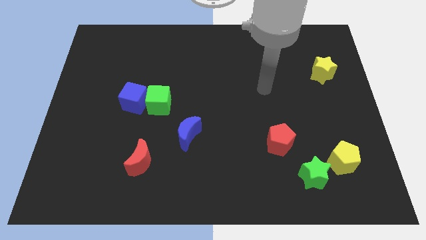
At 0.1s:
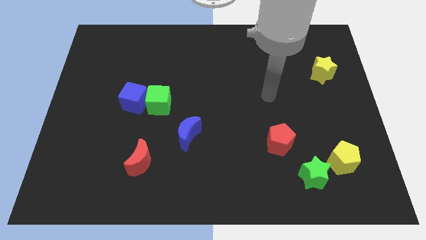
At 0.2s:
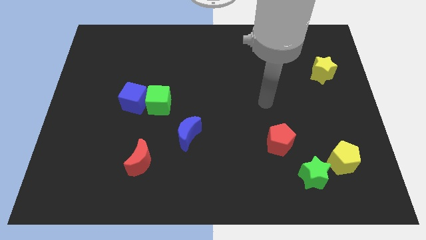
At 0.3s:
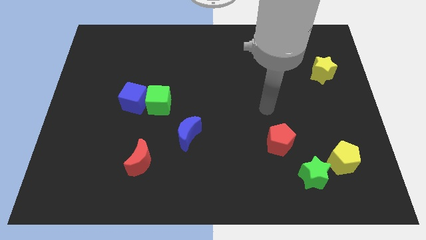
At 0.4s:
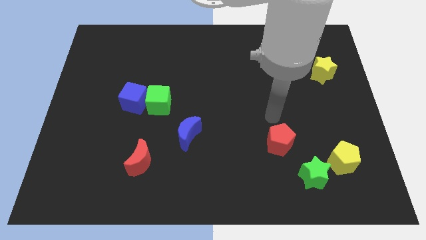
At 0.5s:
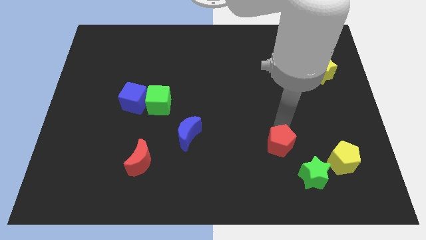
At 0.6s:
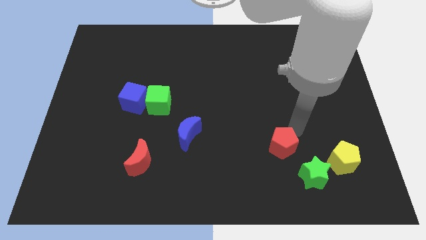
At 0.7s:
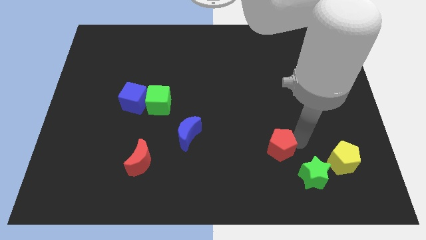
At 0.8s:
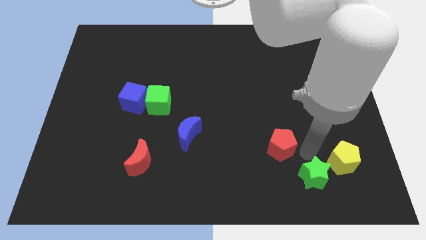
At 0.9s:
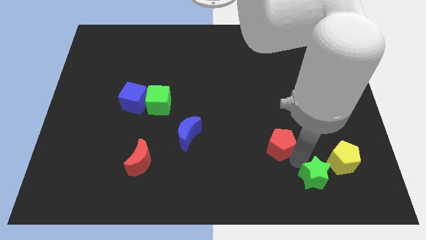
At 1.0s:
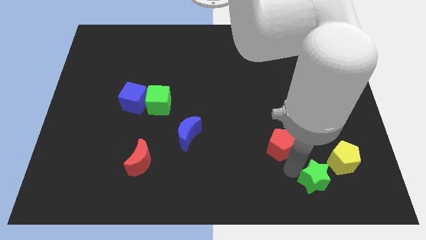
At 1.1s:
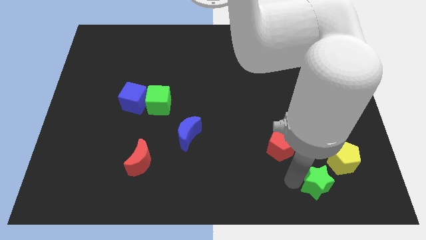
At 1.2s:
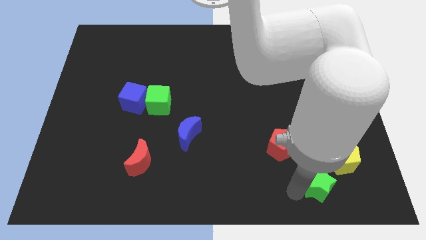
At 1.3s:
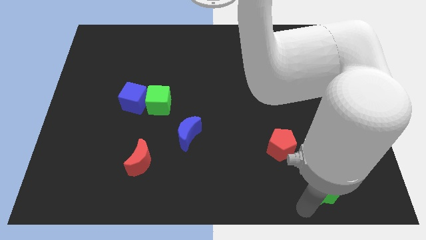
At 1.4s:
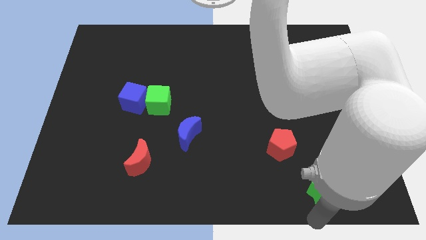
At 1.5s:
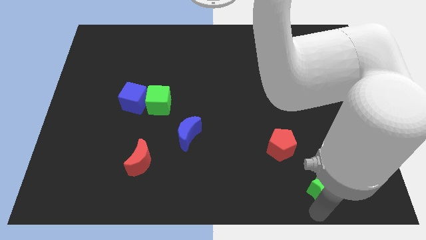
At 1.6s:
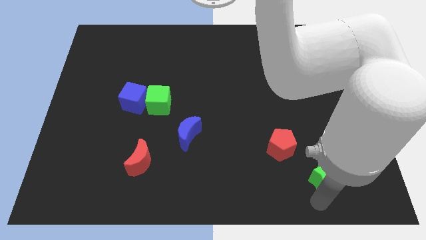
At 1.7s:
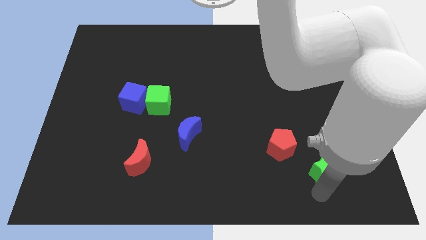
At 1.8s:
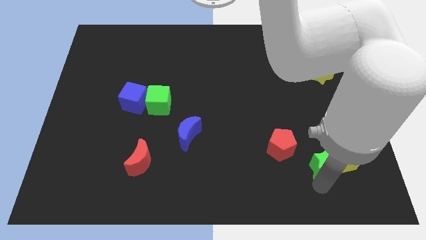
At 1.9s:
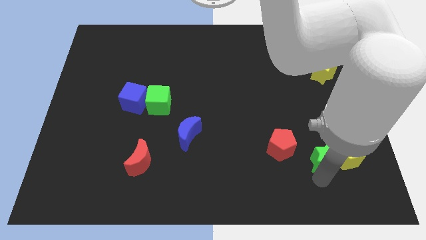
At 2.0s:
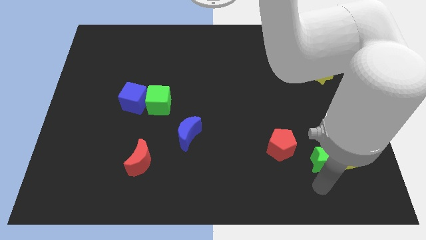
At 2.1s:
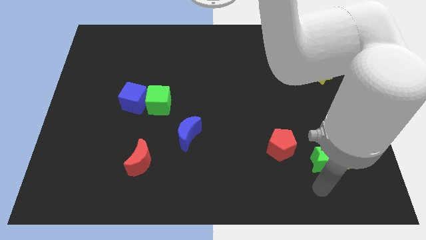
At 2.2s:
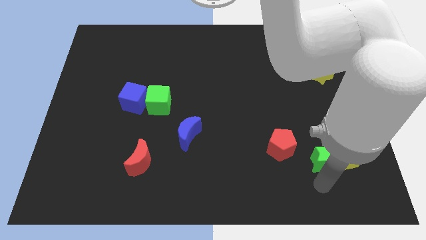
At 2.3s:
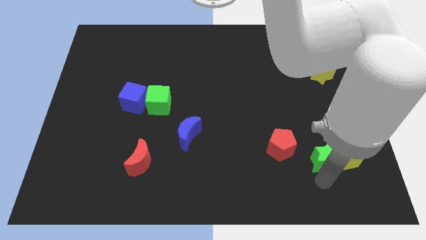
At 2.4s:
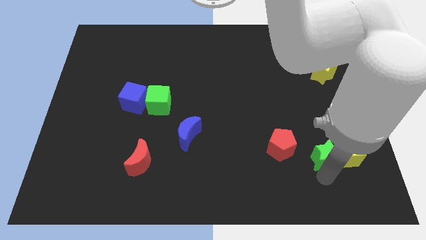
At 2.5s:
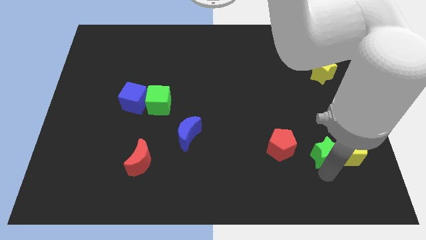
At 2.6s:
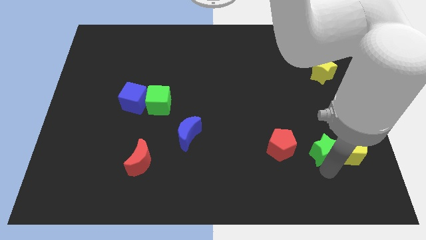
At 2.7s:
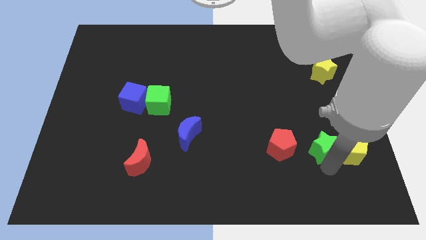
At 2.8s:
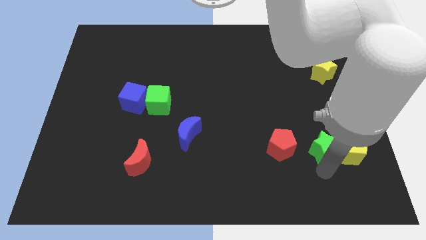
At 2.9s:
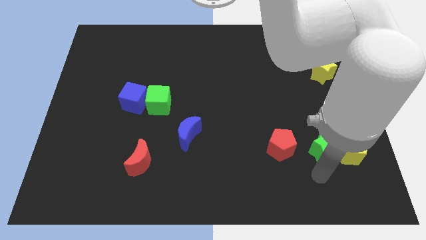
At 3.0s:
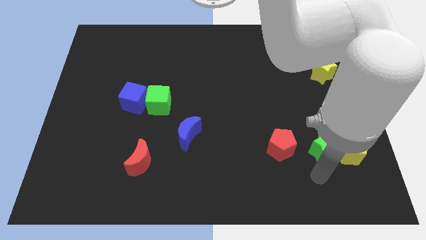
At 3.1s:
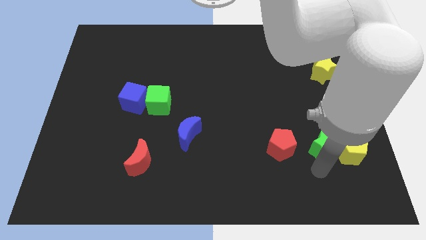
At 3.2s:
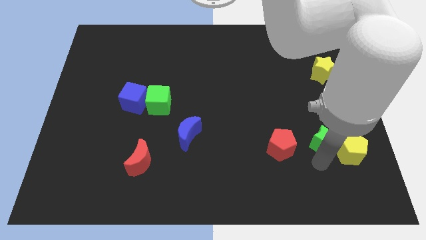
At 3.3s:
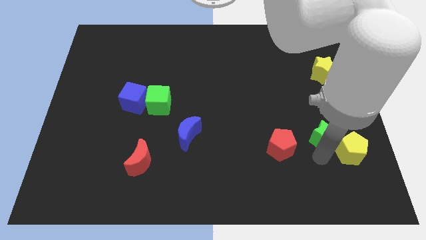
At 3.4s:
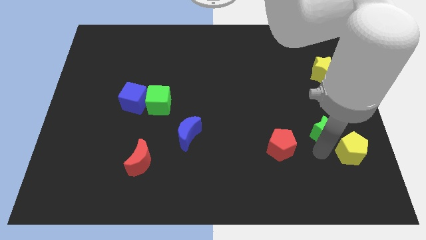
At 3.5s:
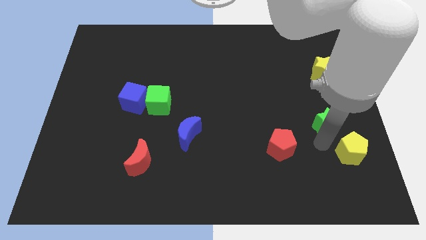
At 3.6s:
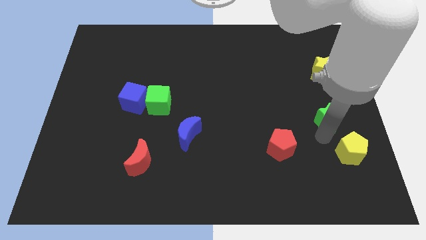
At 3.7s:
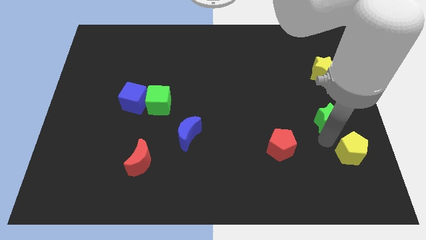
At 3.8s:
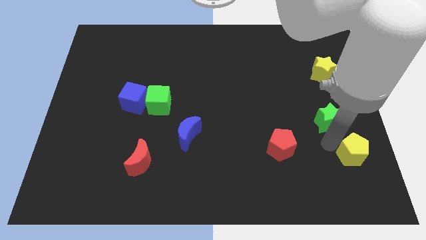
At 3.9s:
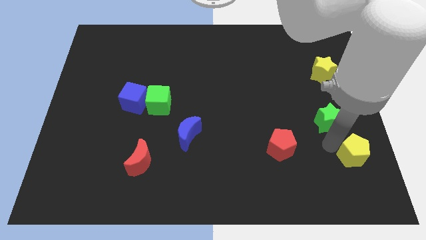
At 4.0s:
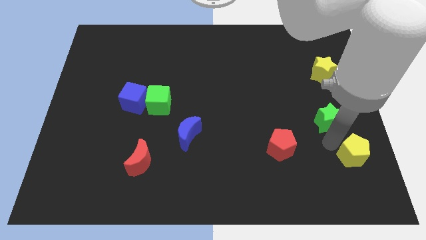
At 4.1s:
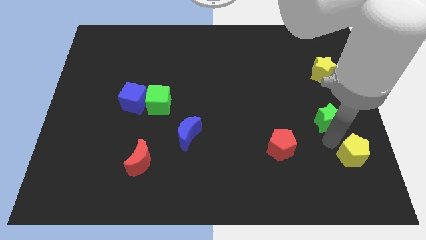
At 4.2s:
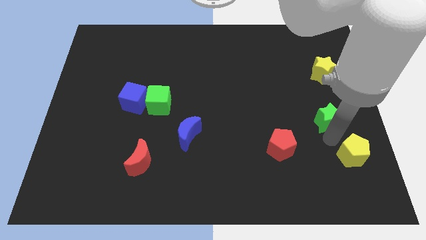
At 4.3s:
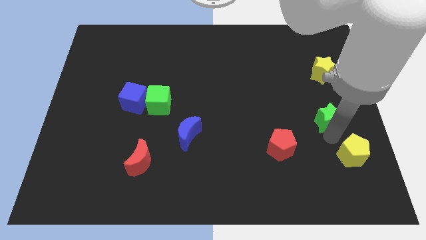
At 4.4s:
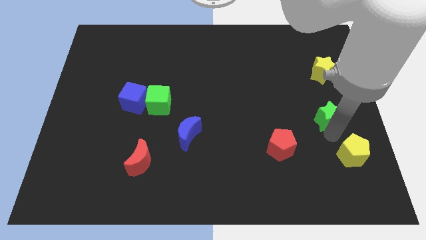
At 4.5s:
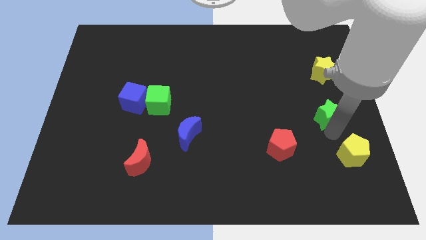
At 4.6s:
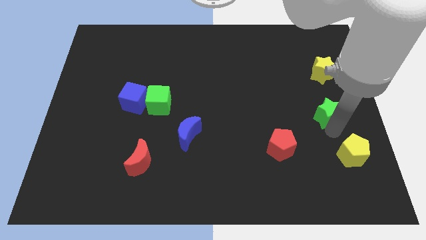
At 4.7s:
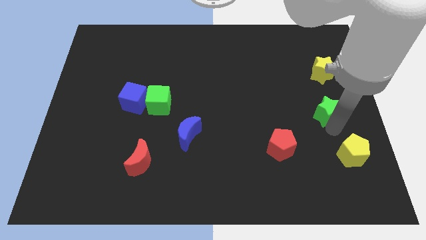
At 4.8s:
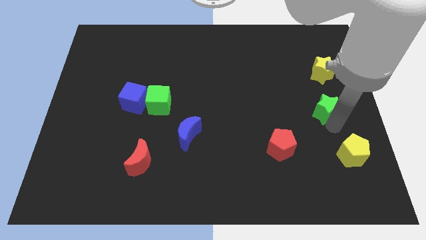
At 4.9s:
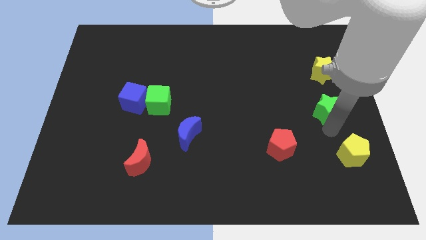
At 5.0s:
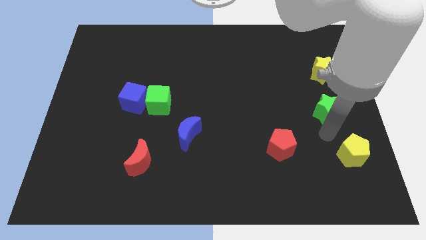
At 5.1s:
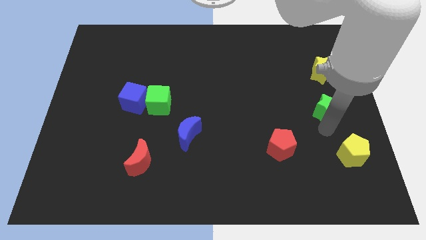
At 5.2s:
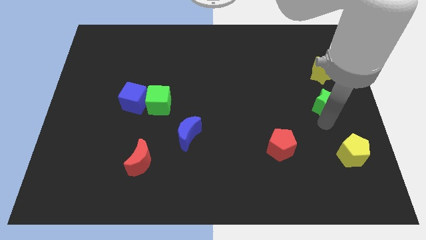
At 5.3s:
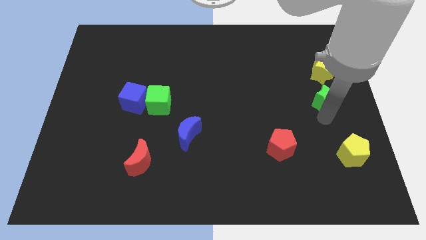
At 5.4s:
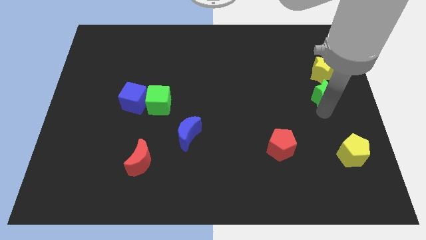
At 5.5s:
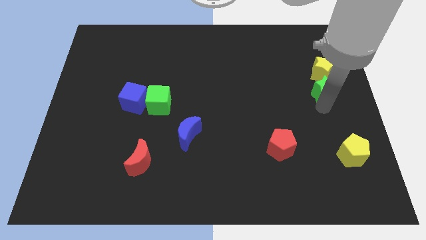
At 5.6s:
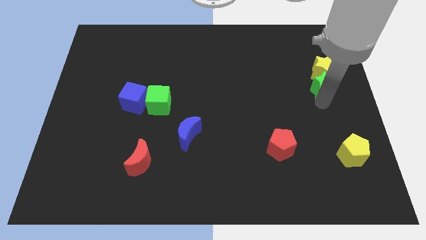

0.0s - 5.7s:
put the green star close to the yellow star

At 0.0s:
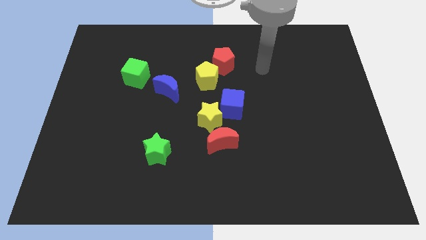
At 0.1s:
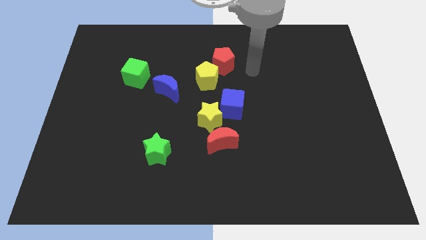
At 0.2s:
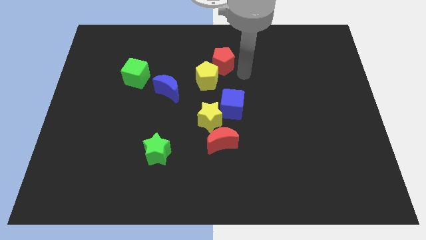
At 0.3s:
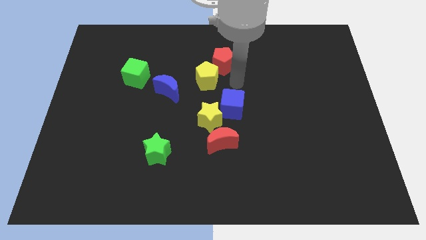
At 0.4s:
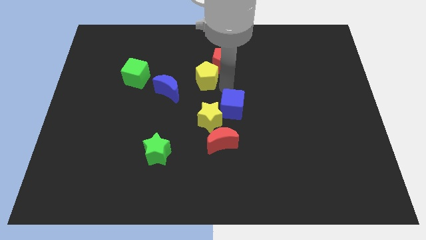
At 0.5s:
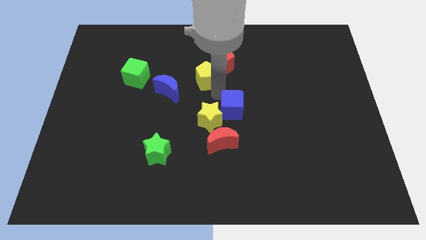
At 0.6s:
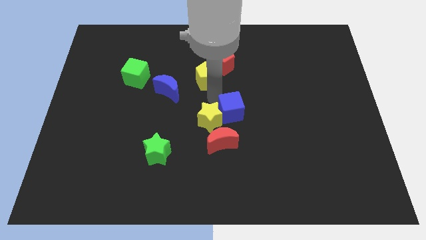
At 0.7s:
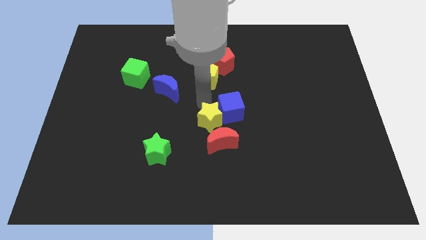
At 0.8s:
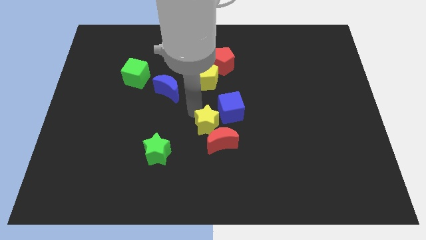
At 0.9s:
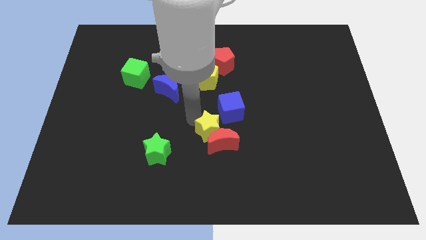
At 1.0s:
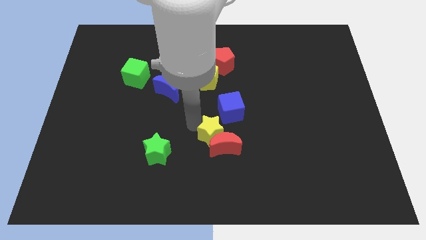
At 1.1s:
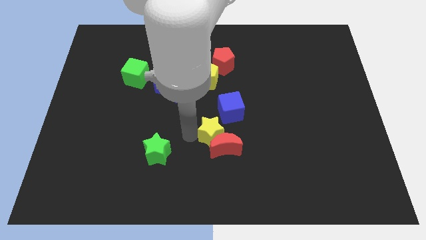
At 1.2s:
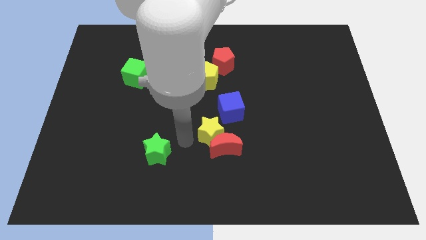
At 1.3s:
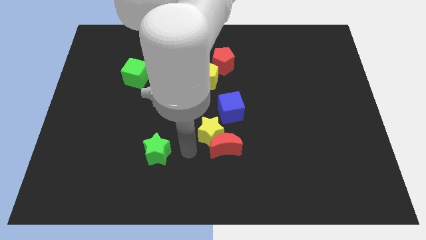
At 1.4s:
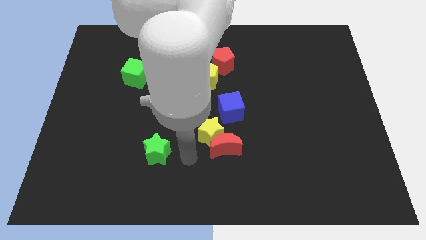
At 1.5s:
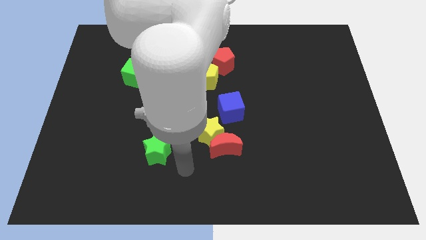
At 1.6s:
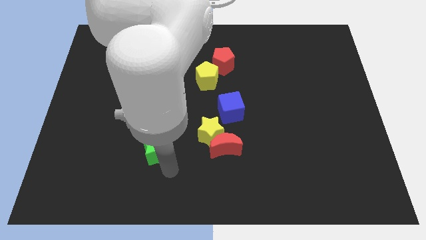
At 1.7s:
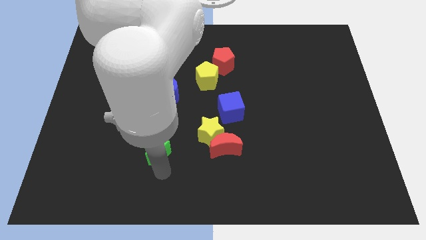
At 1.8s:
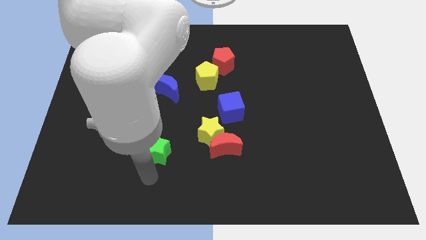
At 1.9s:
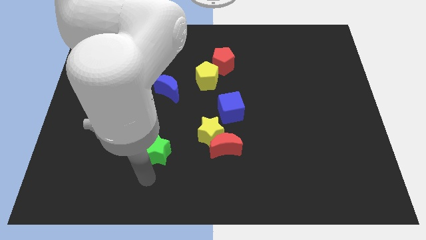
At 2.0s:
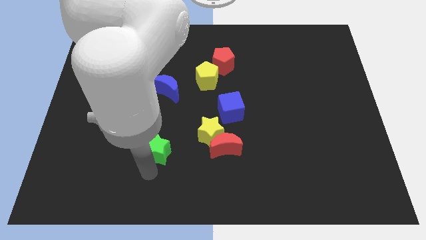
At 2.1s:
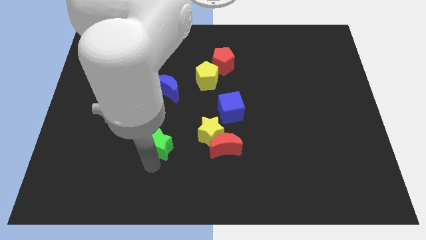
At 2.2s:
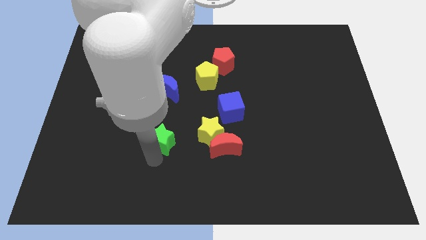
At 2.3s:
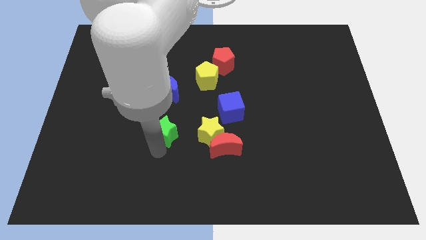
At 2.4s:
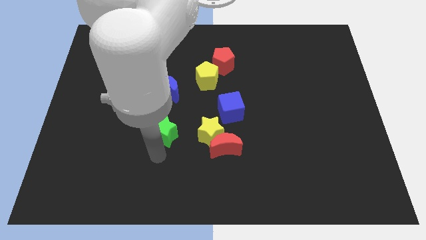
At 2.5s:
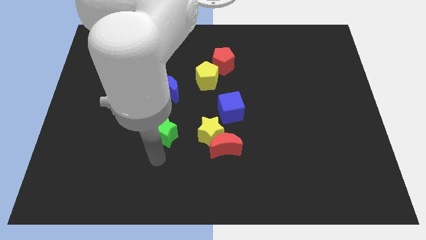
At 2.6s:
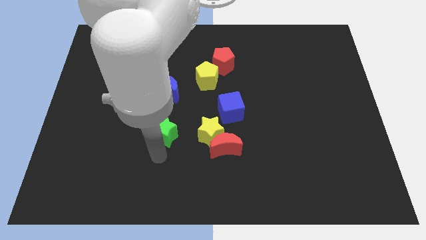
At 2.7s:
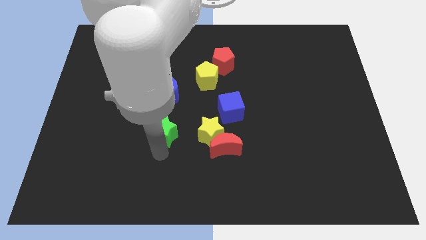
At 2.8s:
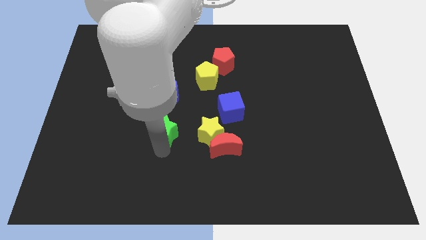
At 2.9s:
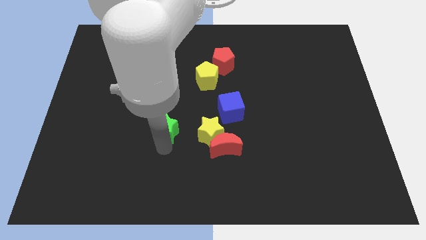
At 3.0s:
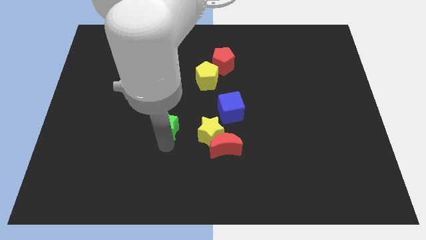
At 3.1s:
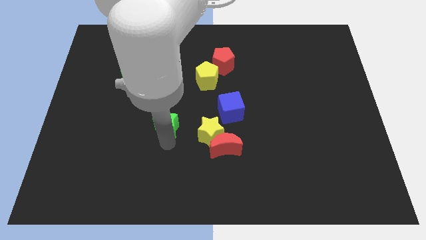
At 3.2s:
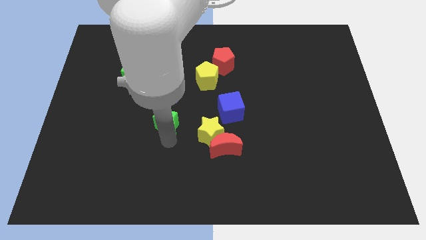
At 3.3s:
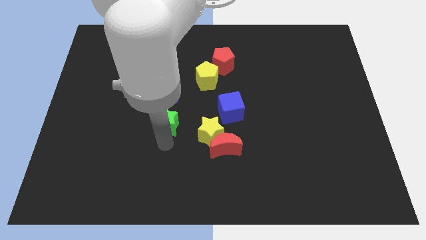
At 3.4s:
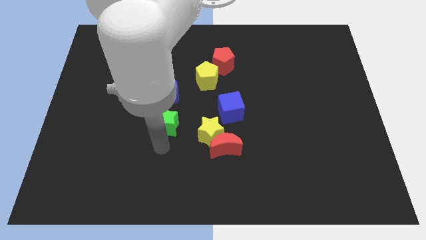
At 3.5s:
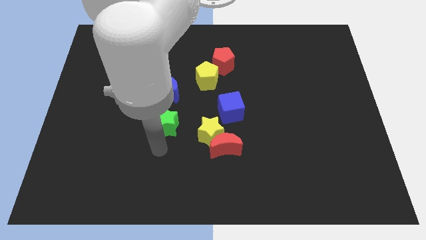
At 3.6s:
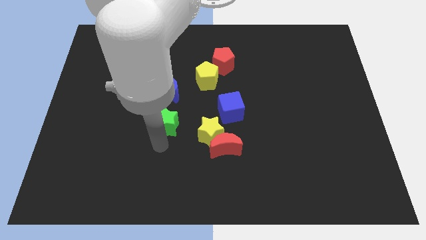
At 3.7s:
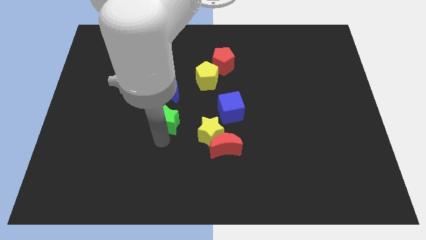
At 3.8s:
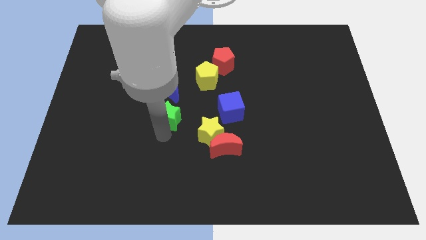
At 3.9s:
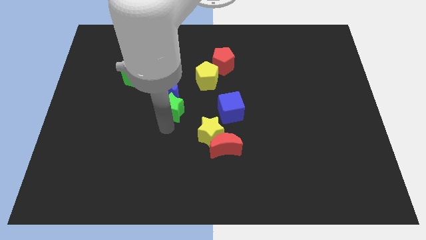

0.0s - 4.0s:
move the green star close to the blue moon
